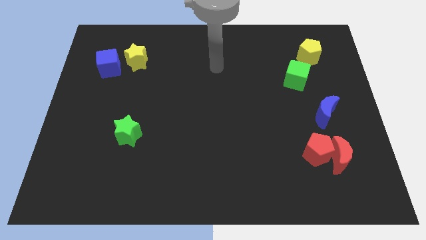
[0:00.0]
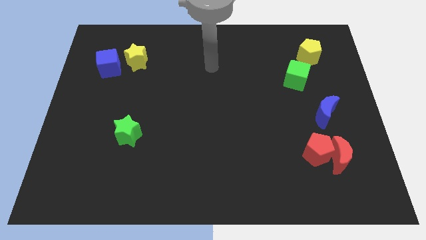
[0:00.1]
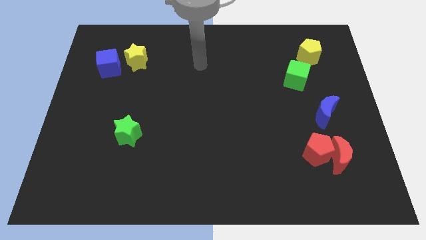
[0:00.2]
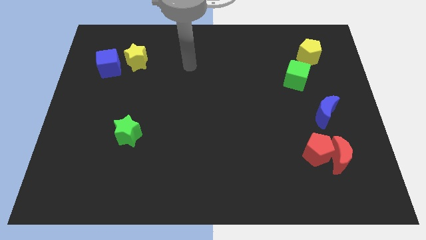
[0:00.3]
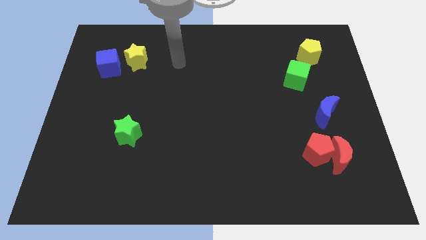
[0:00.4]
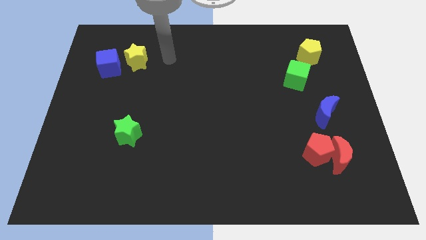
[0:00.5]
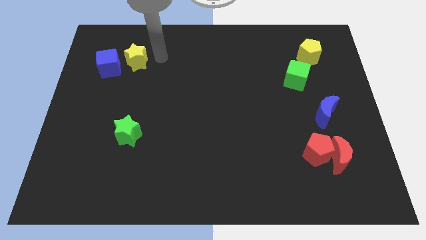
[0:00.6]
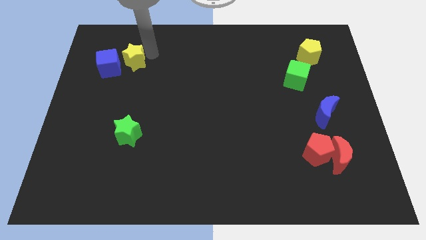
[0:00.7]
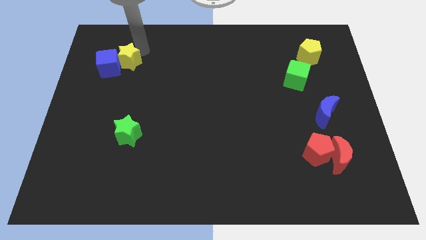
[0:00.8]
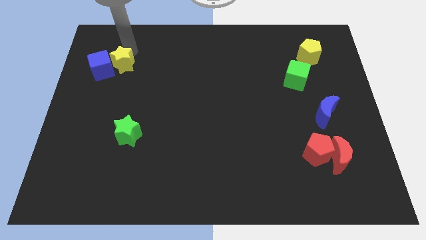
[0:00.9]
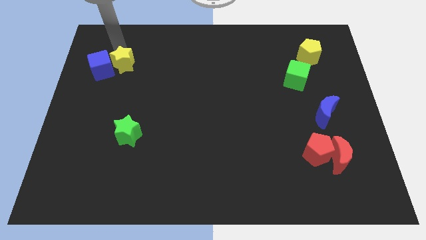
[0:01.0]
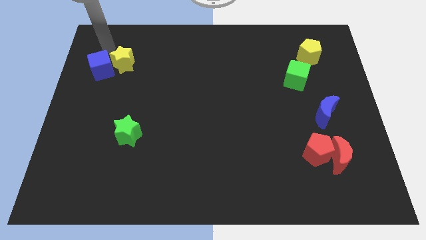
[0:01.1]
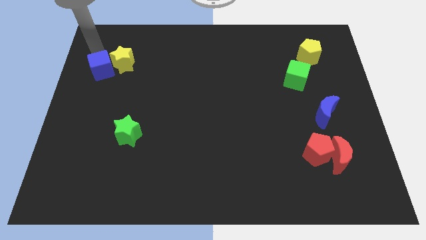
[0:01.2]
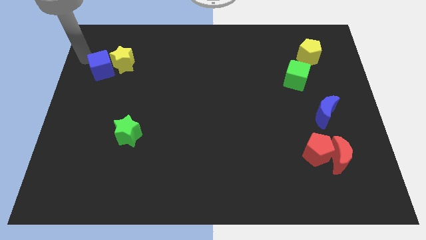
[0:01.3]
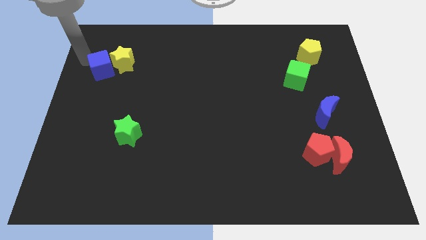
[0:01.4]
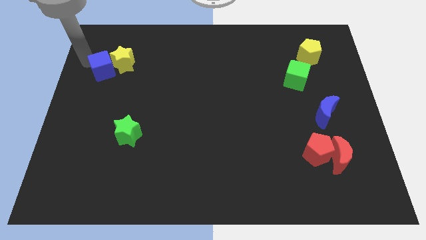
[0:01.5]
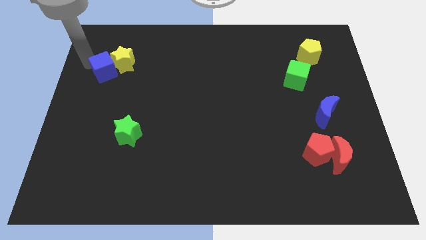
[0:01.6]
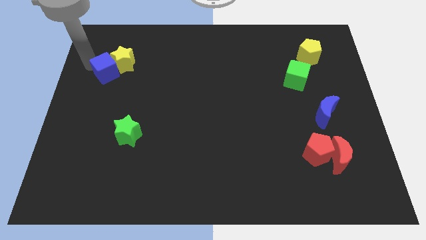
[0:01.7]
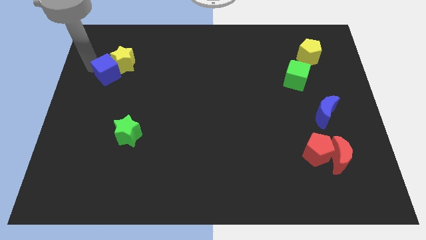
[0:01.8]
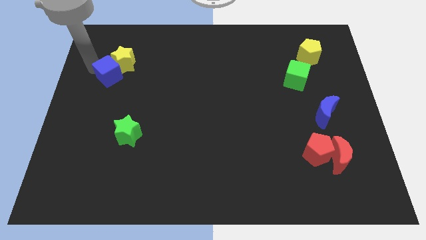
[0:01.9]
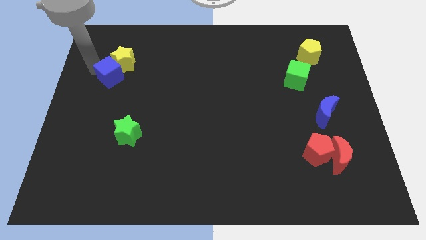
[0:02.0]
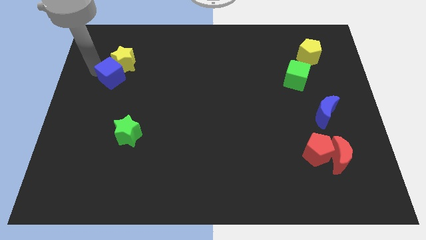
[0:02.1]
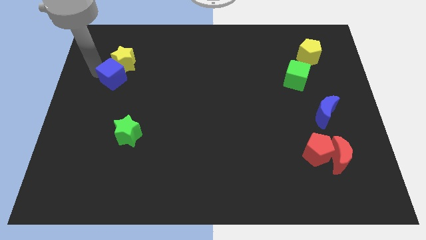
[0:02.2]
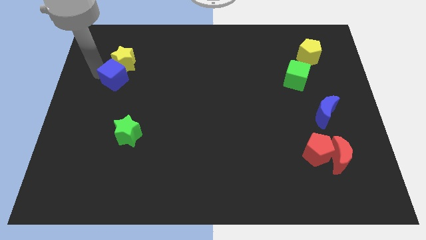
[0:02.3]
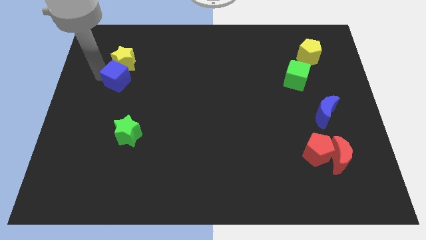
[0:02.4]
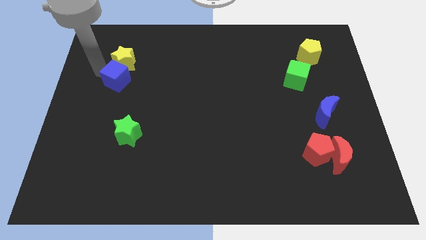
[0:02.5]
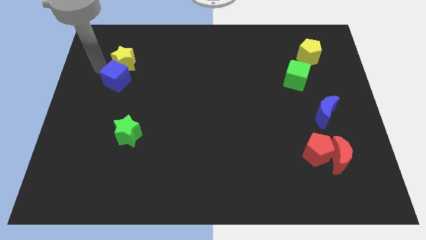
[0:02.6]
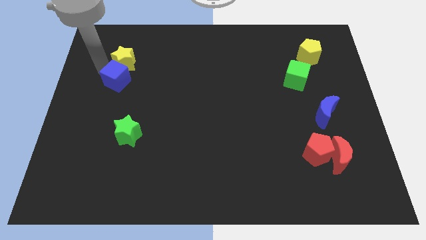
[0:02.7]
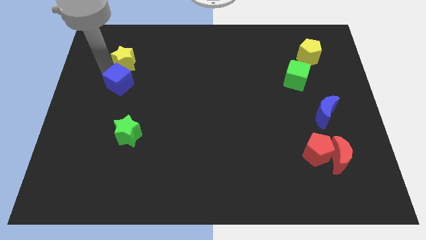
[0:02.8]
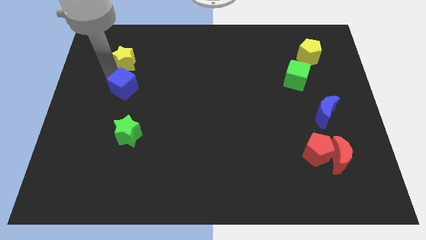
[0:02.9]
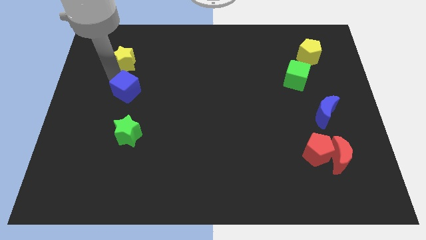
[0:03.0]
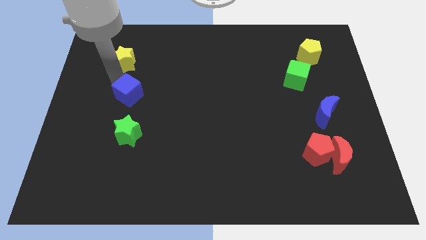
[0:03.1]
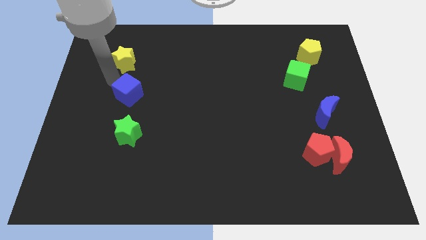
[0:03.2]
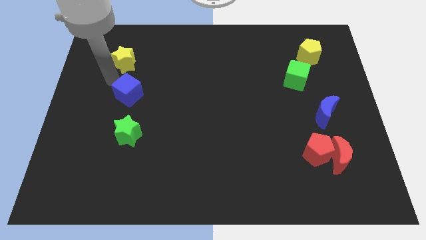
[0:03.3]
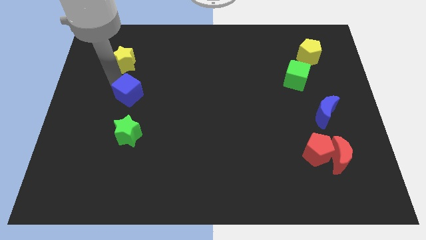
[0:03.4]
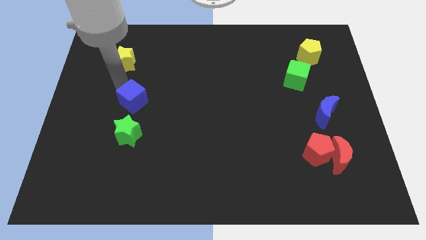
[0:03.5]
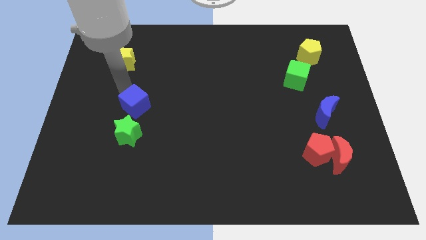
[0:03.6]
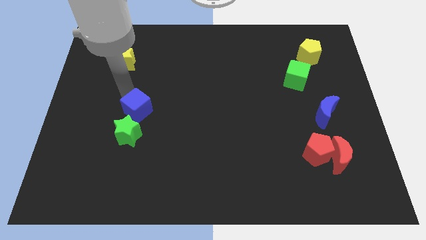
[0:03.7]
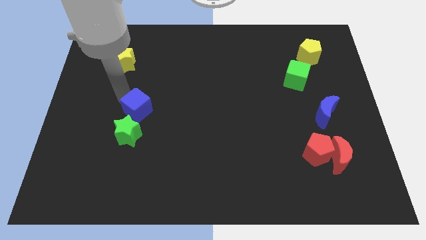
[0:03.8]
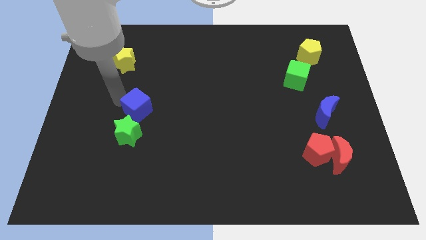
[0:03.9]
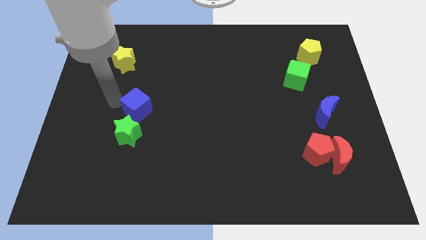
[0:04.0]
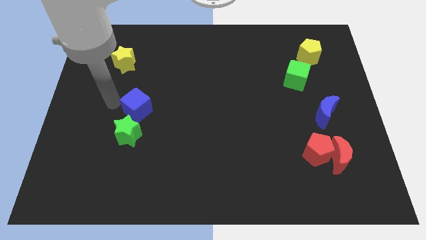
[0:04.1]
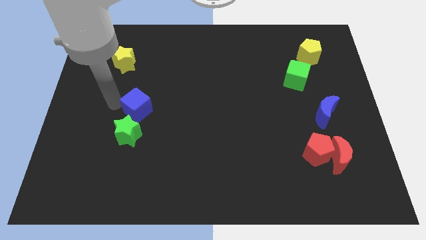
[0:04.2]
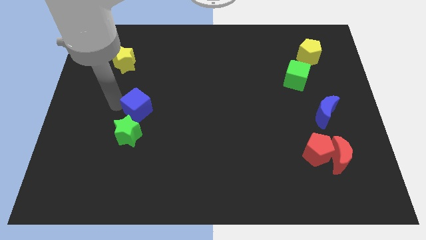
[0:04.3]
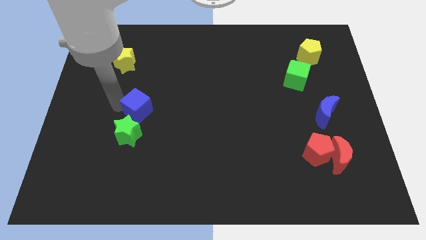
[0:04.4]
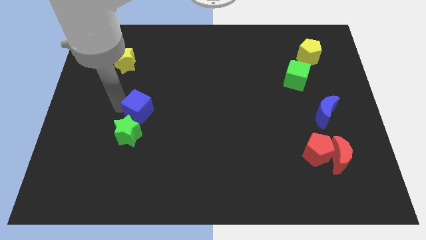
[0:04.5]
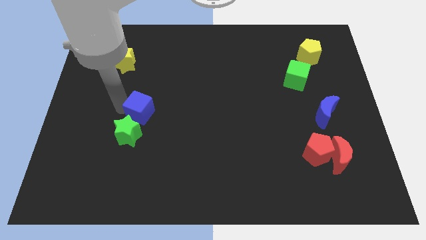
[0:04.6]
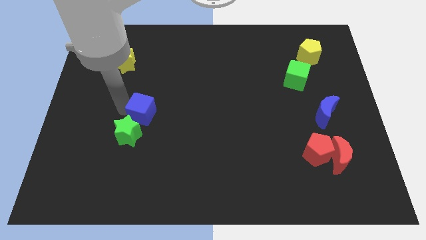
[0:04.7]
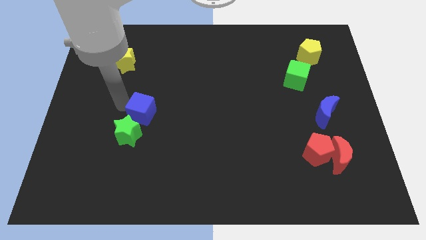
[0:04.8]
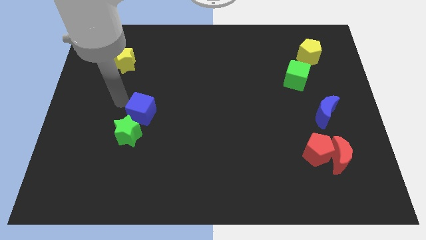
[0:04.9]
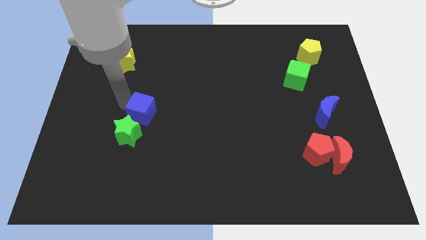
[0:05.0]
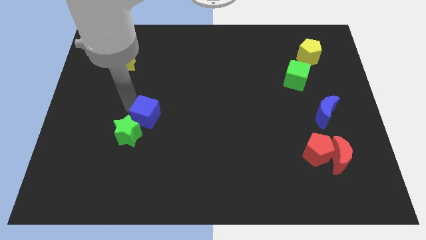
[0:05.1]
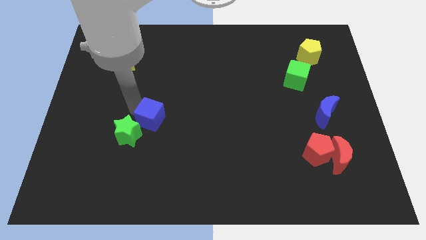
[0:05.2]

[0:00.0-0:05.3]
push the blue cube downwards and then to the right

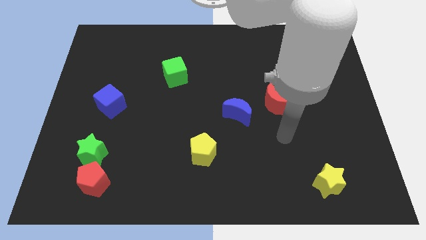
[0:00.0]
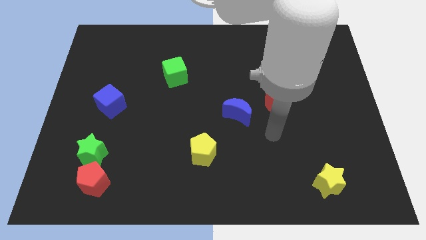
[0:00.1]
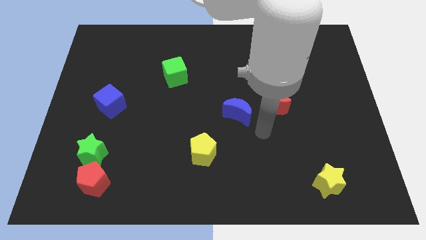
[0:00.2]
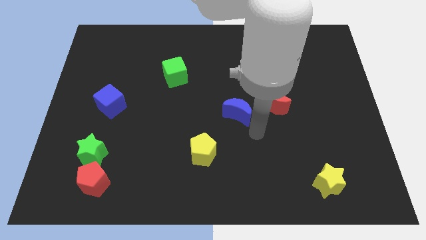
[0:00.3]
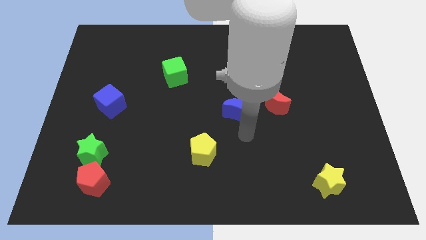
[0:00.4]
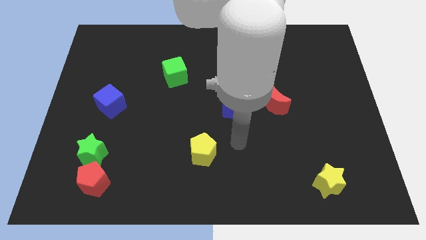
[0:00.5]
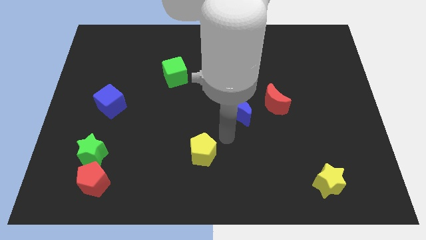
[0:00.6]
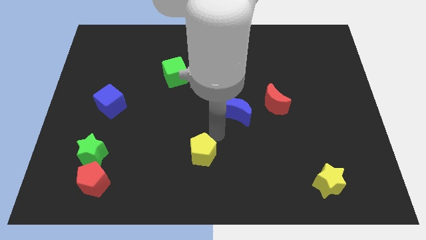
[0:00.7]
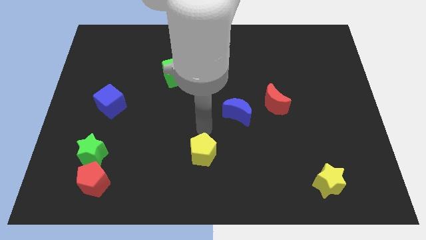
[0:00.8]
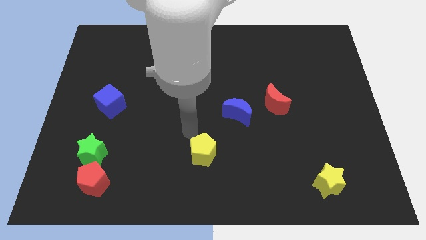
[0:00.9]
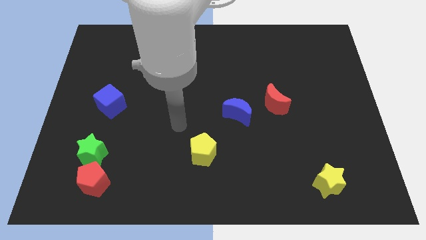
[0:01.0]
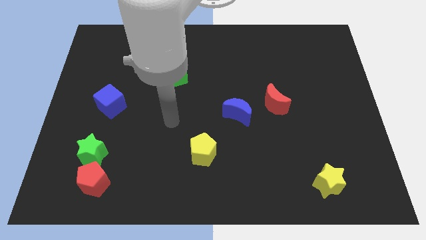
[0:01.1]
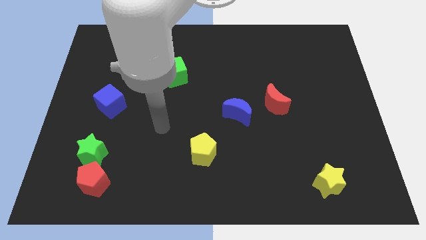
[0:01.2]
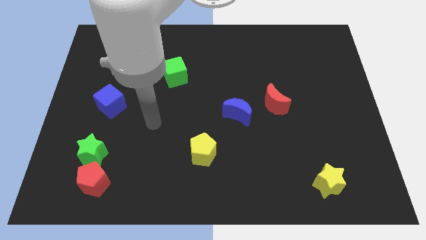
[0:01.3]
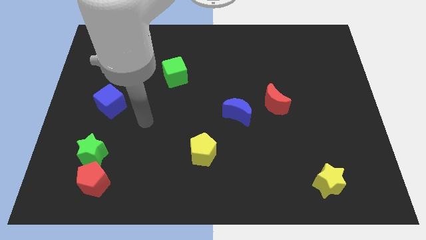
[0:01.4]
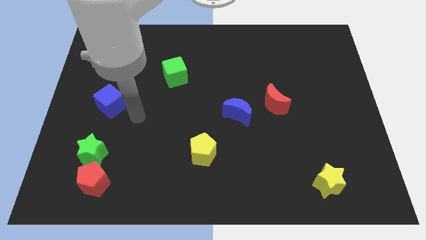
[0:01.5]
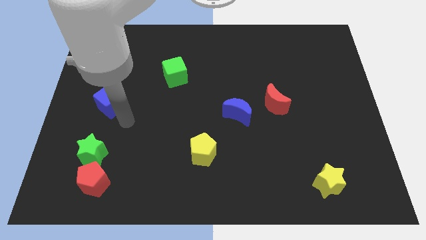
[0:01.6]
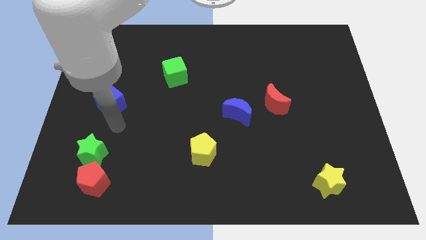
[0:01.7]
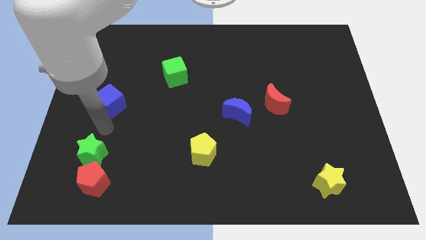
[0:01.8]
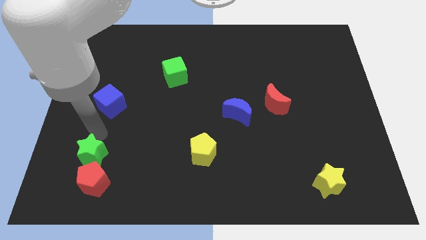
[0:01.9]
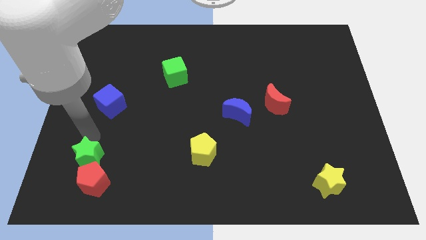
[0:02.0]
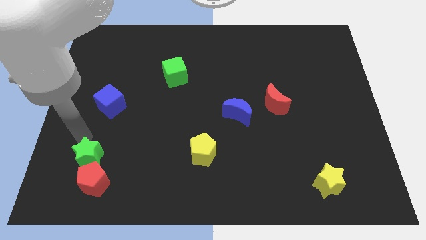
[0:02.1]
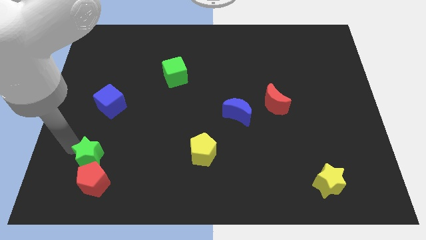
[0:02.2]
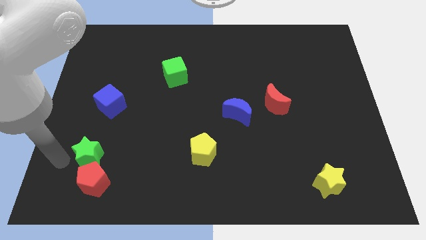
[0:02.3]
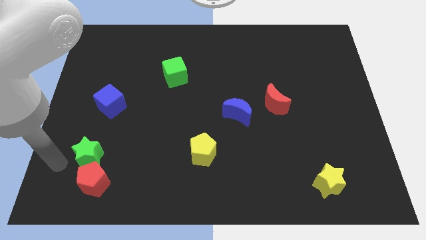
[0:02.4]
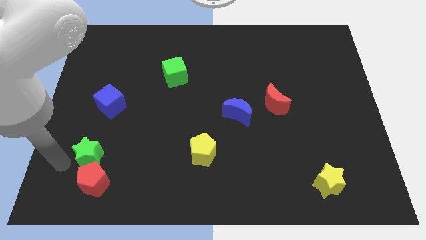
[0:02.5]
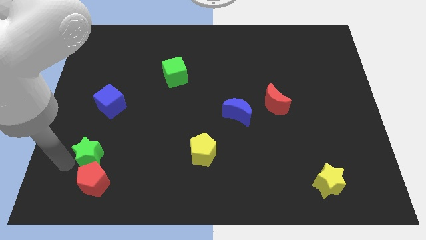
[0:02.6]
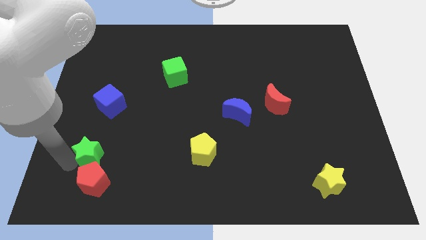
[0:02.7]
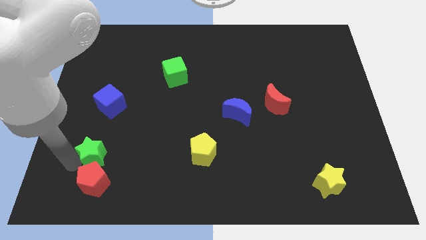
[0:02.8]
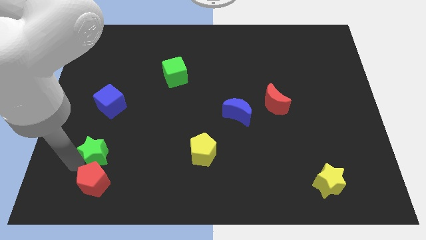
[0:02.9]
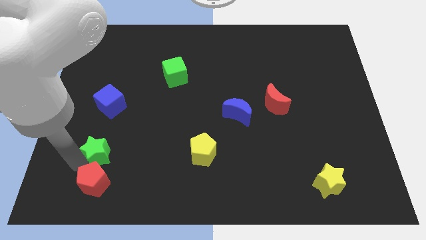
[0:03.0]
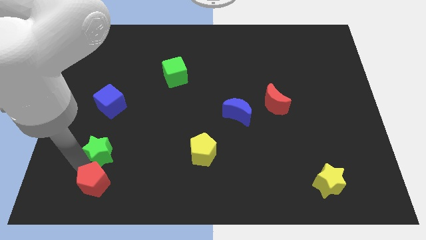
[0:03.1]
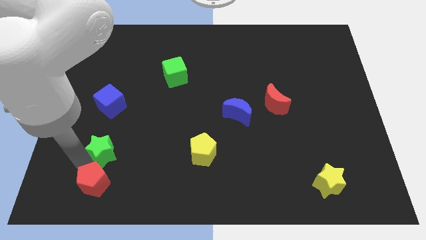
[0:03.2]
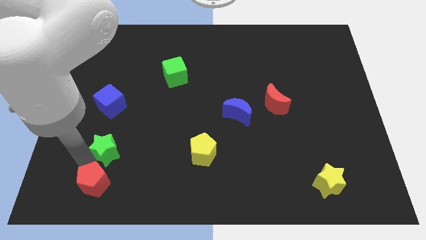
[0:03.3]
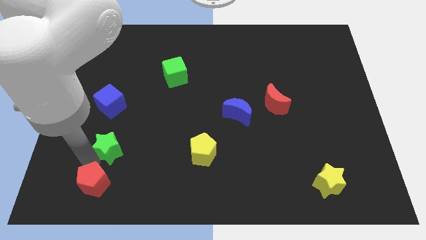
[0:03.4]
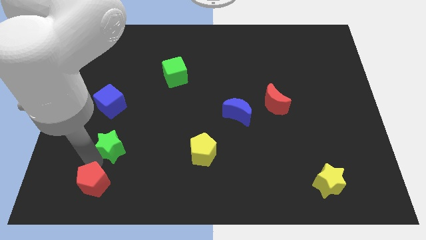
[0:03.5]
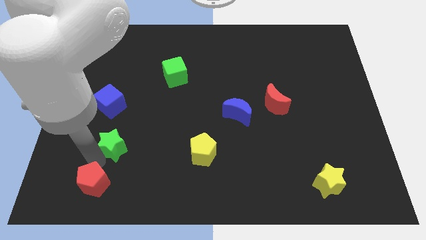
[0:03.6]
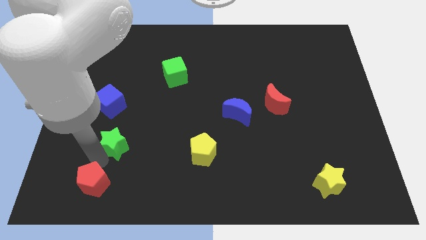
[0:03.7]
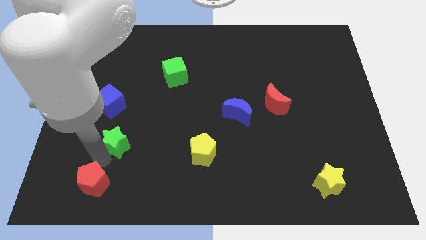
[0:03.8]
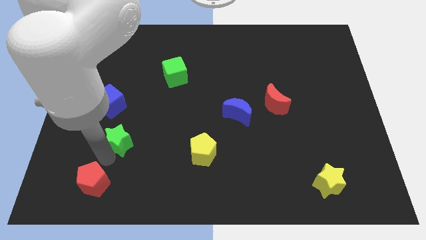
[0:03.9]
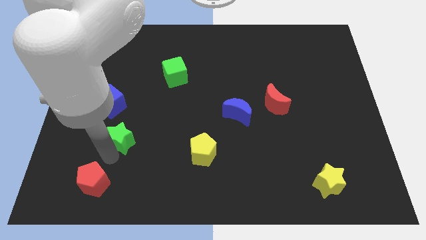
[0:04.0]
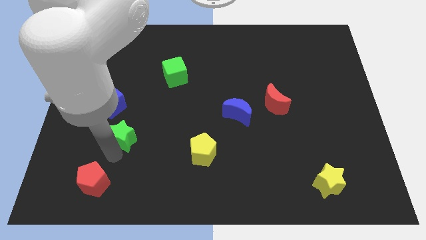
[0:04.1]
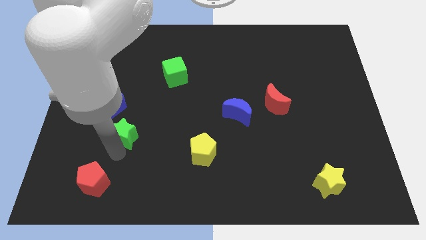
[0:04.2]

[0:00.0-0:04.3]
slightly move the green star up and right
